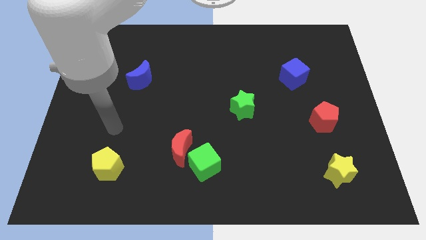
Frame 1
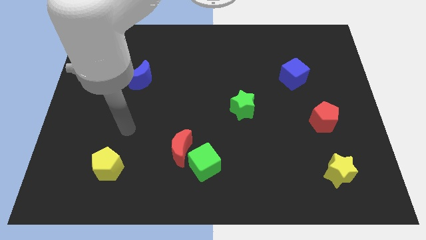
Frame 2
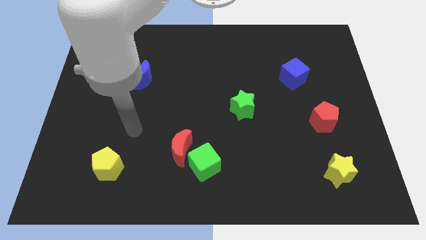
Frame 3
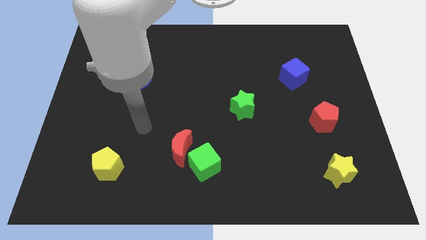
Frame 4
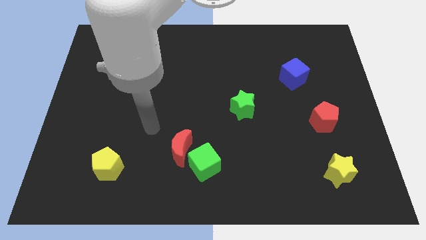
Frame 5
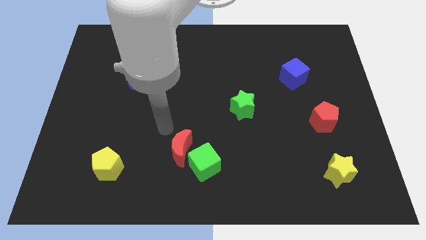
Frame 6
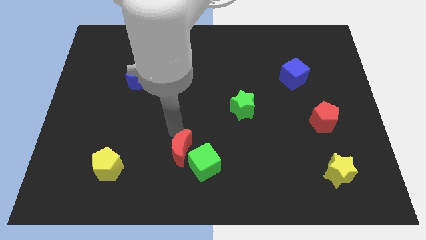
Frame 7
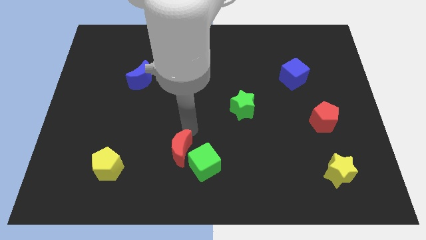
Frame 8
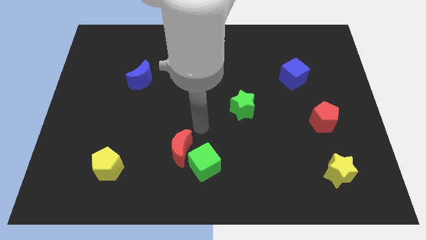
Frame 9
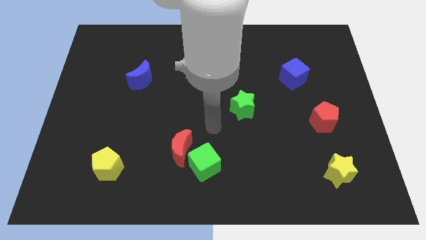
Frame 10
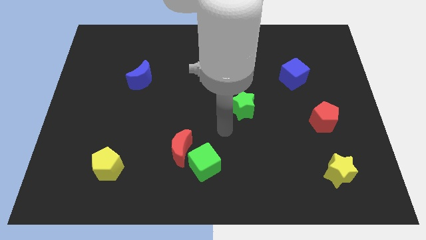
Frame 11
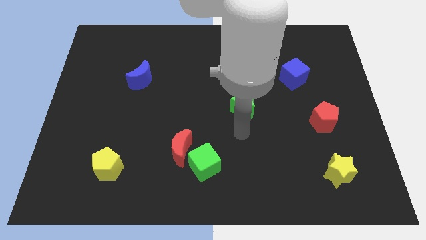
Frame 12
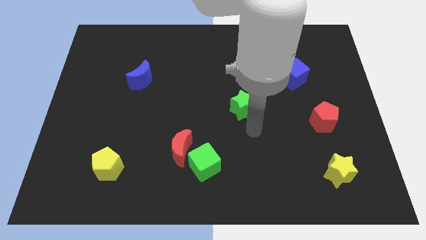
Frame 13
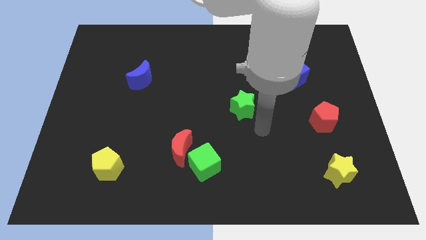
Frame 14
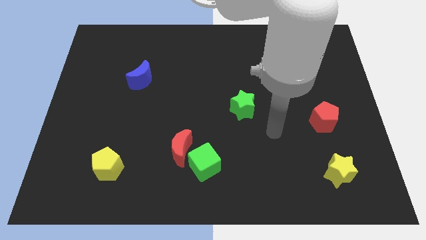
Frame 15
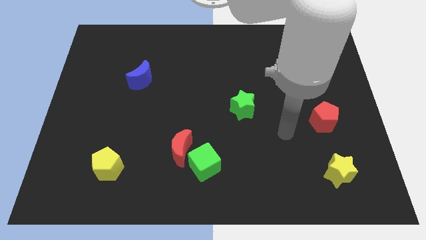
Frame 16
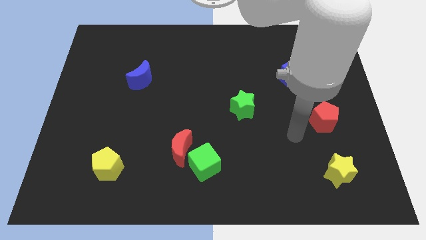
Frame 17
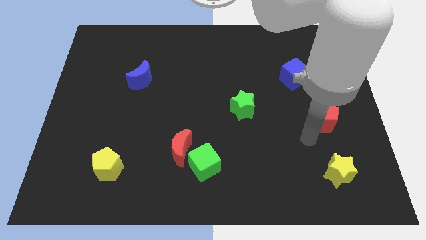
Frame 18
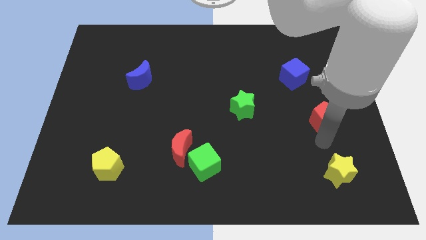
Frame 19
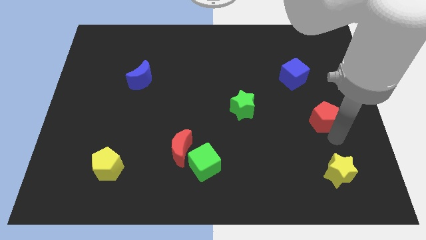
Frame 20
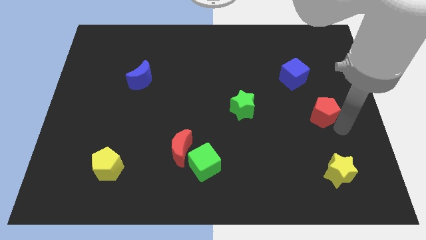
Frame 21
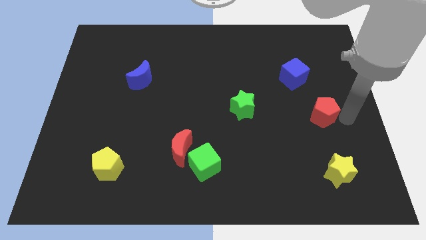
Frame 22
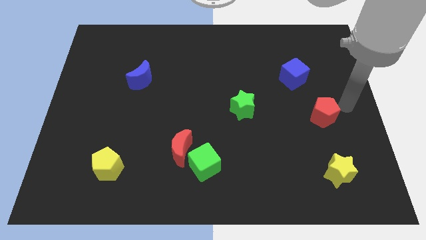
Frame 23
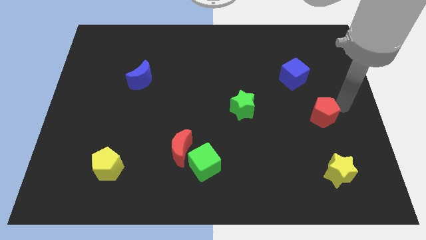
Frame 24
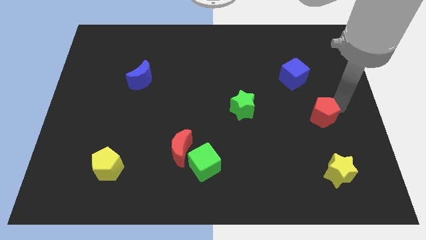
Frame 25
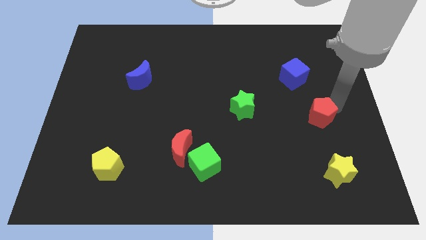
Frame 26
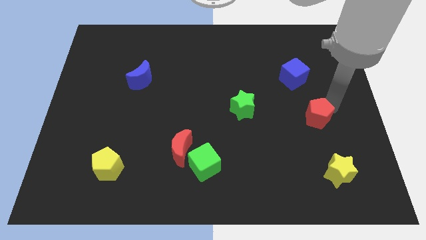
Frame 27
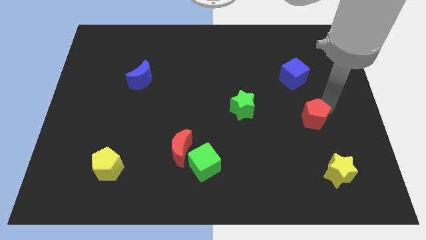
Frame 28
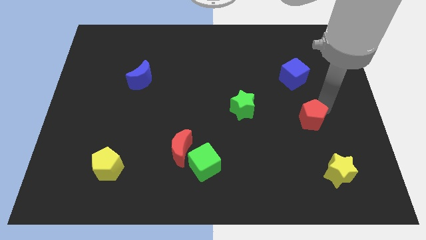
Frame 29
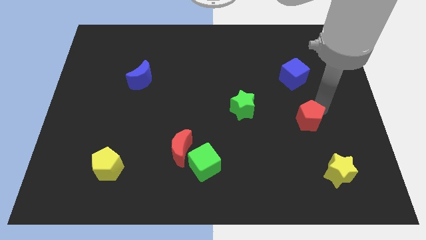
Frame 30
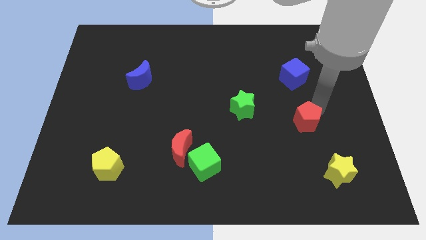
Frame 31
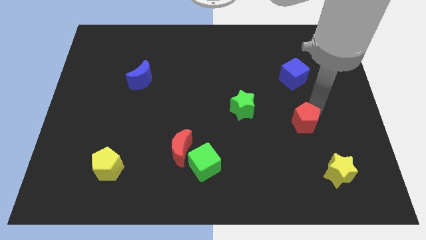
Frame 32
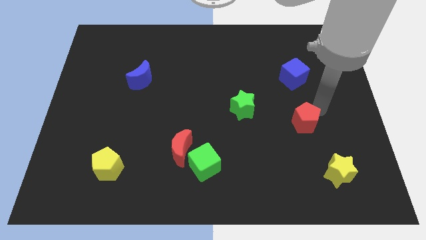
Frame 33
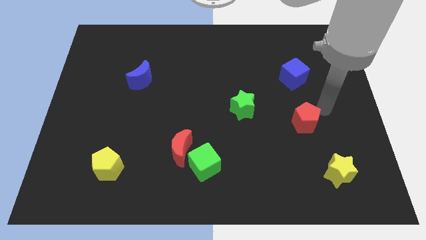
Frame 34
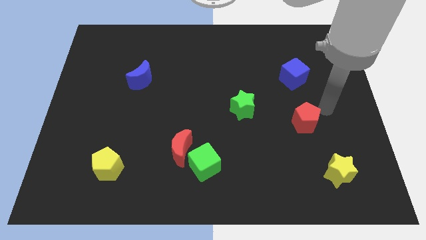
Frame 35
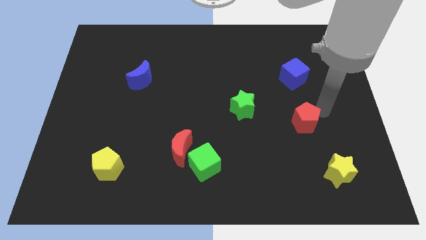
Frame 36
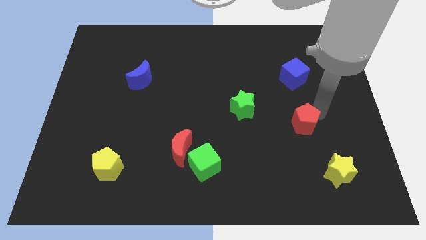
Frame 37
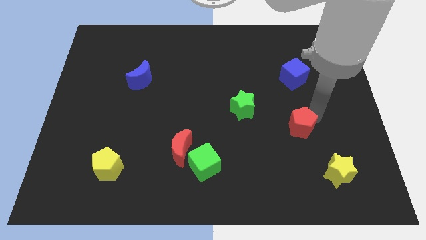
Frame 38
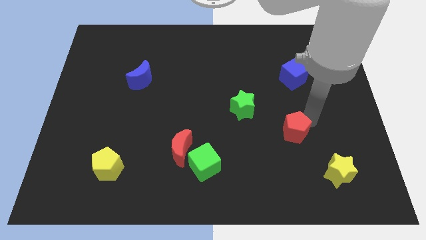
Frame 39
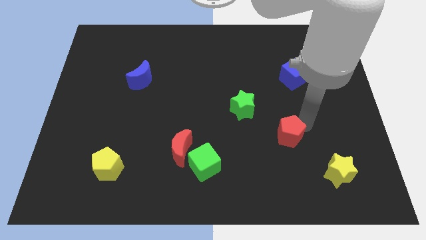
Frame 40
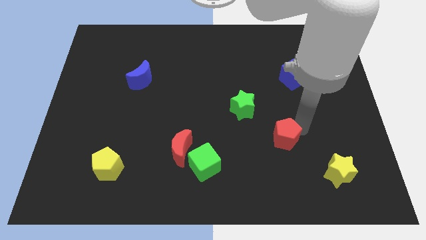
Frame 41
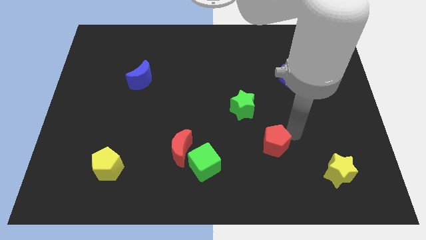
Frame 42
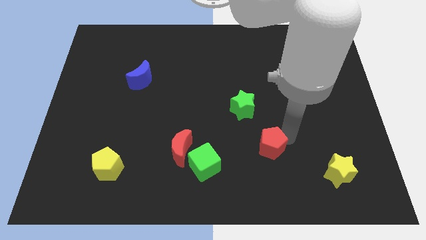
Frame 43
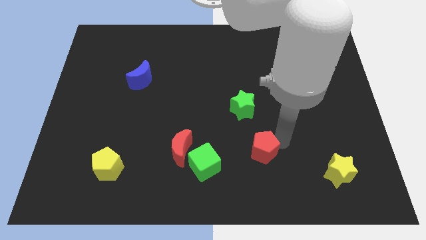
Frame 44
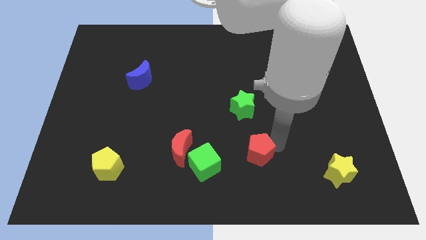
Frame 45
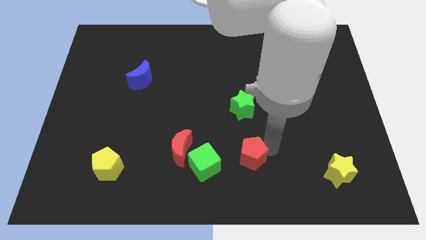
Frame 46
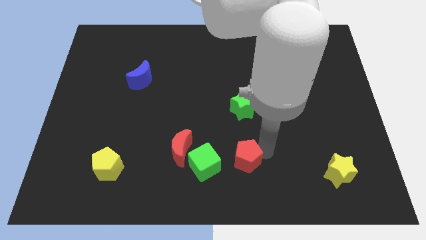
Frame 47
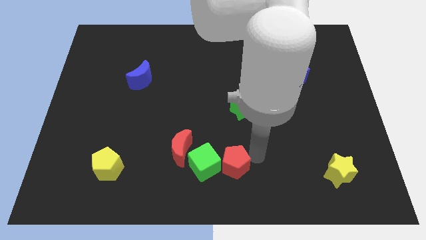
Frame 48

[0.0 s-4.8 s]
put the red pentagon towards the green cube

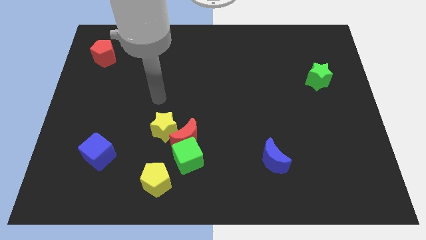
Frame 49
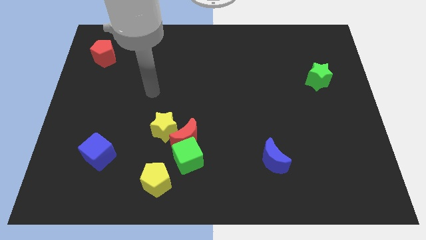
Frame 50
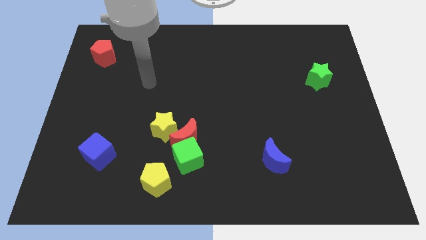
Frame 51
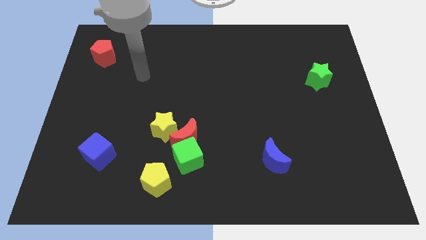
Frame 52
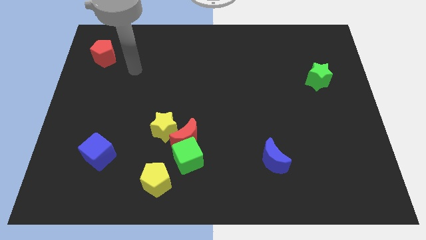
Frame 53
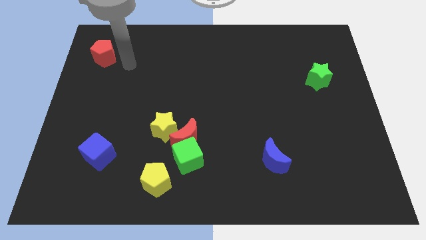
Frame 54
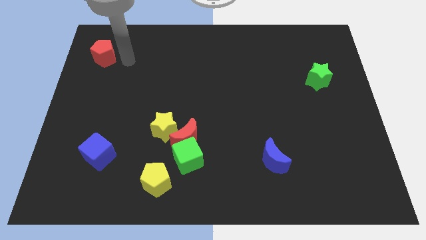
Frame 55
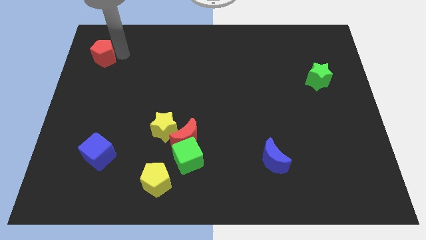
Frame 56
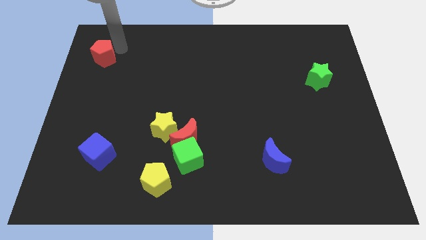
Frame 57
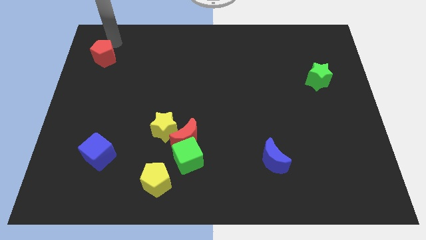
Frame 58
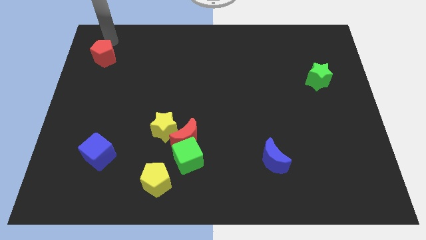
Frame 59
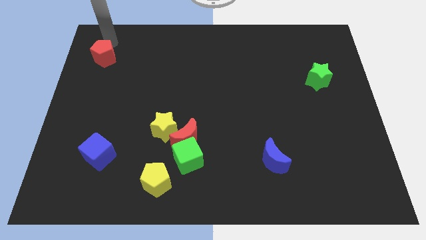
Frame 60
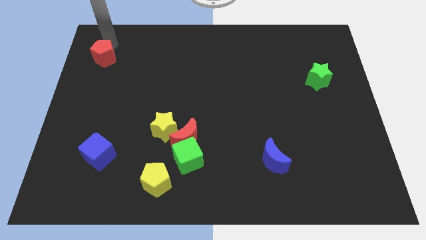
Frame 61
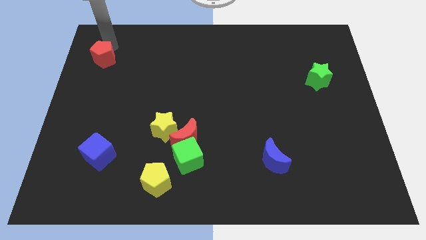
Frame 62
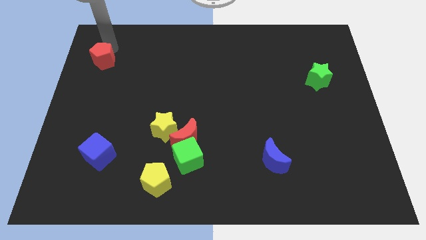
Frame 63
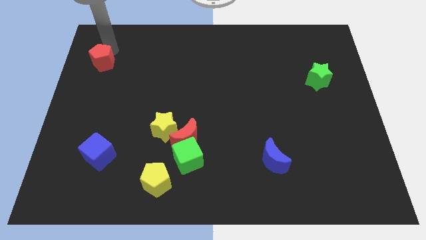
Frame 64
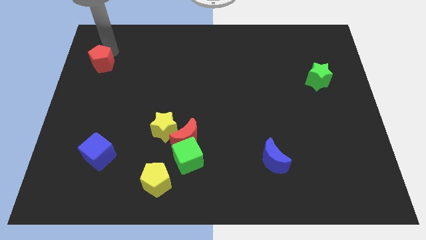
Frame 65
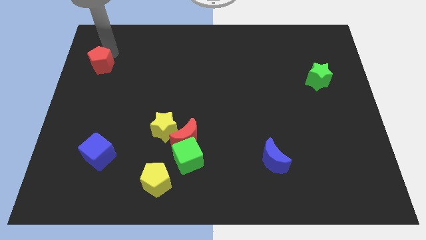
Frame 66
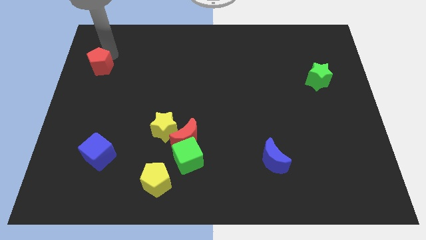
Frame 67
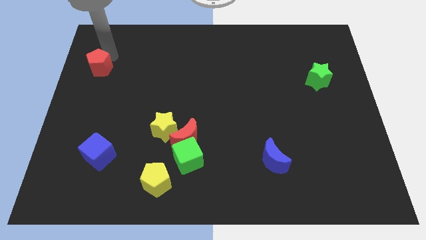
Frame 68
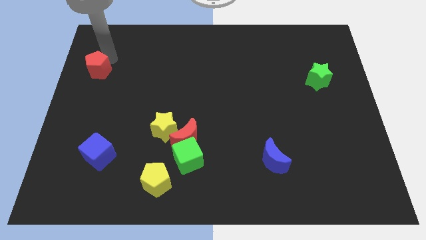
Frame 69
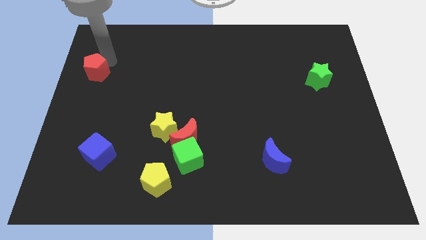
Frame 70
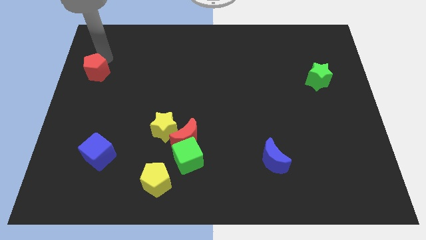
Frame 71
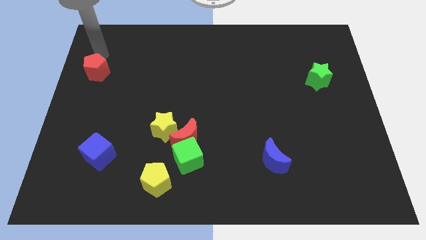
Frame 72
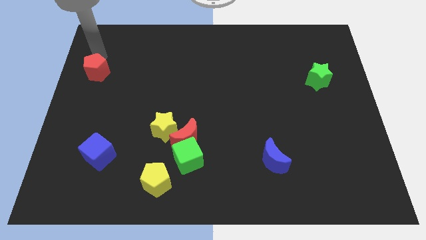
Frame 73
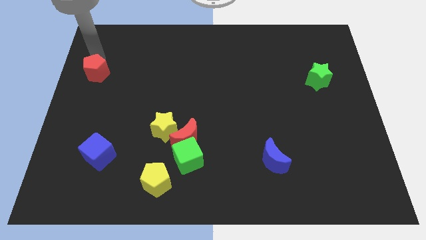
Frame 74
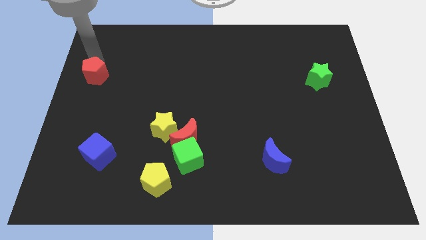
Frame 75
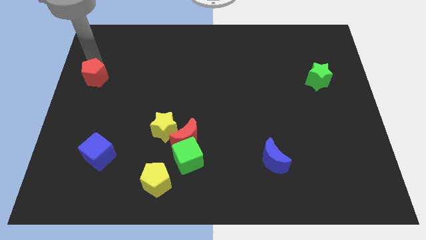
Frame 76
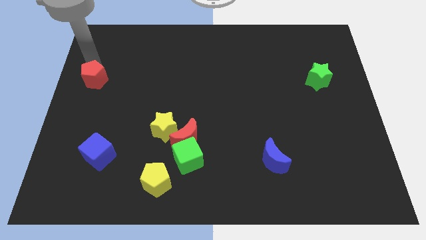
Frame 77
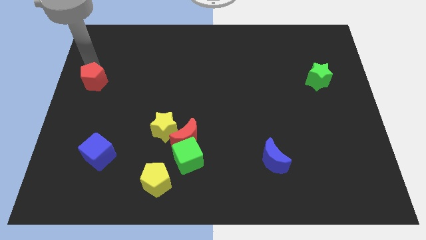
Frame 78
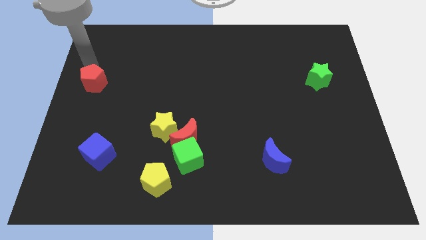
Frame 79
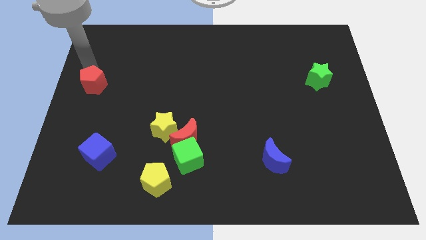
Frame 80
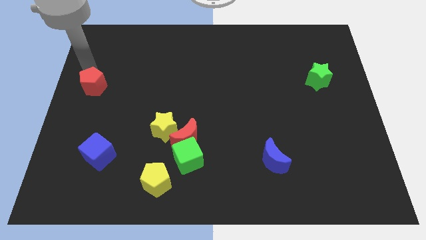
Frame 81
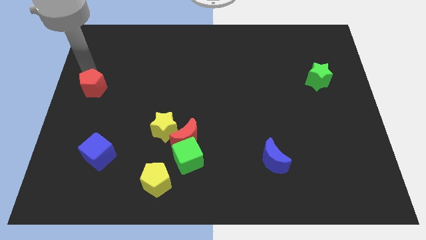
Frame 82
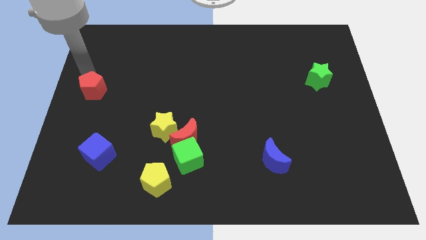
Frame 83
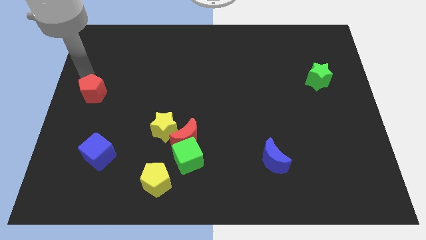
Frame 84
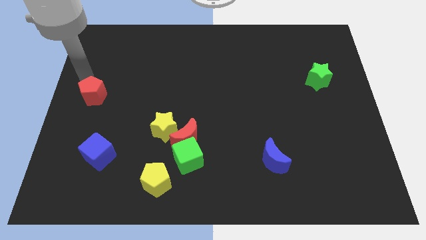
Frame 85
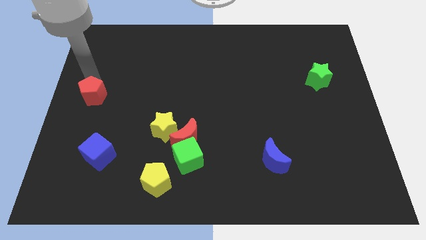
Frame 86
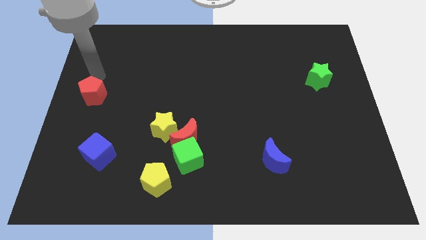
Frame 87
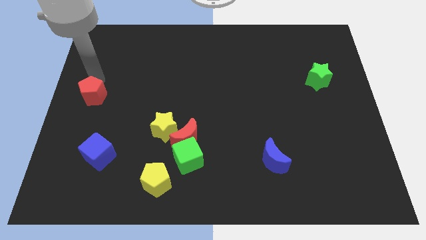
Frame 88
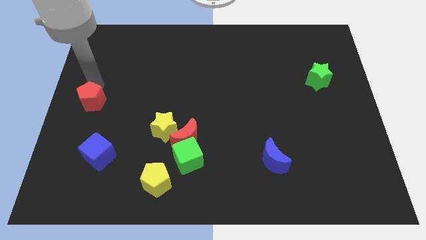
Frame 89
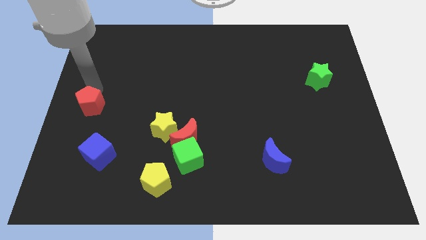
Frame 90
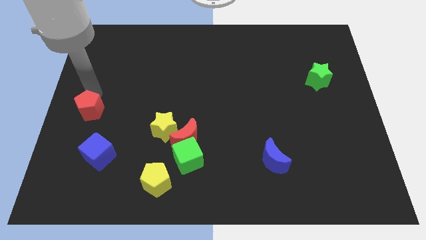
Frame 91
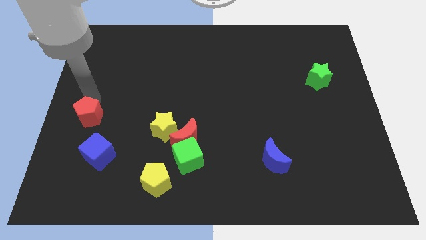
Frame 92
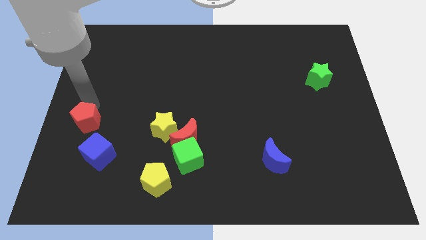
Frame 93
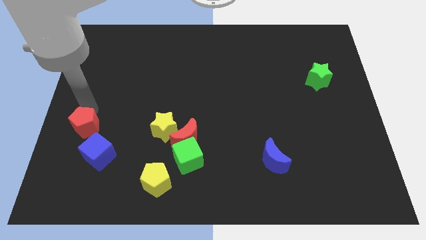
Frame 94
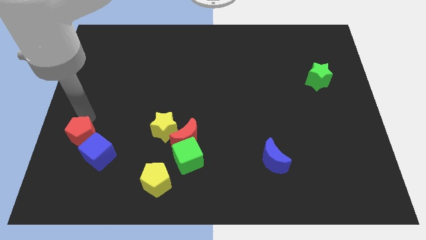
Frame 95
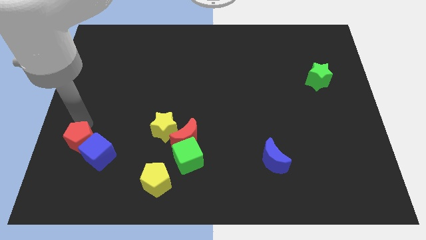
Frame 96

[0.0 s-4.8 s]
move the red pentagon to the blue cube
